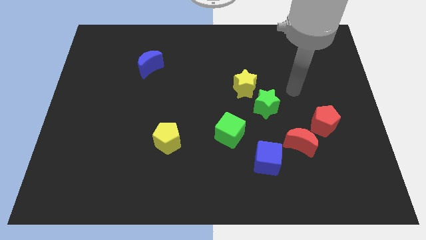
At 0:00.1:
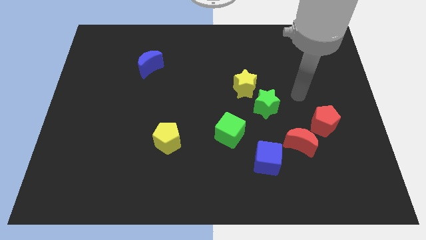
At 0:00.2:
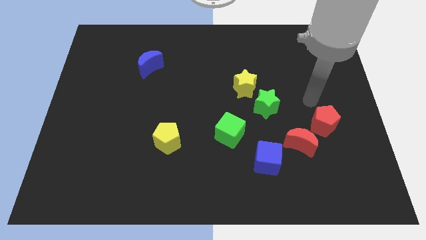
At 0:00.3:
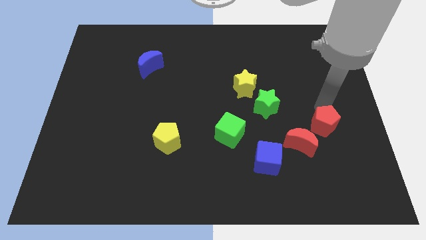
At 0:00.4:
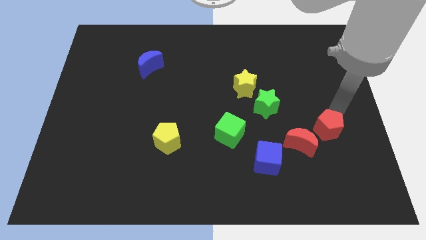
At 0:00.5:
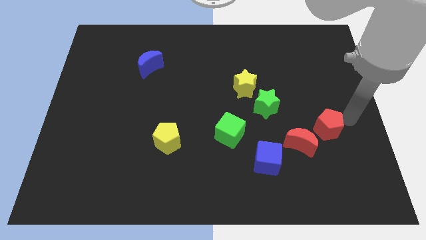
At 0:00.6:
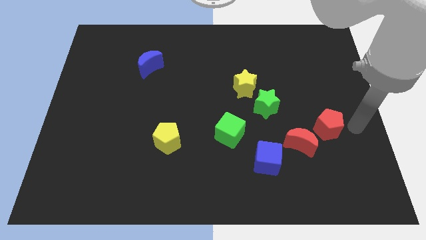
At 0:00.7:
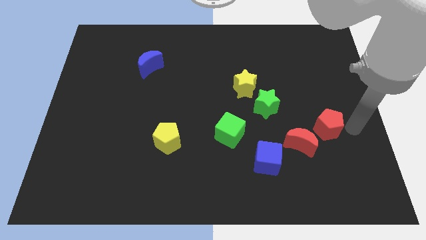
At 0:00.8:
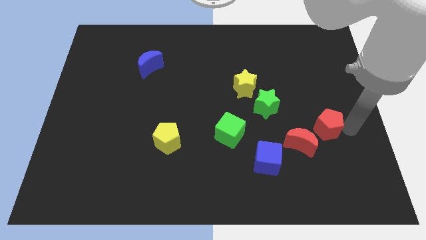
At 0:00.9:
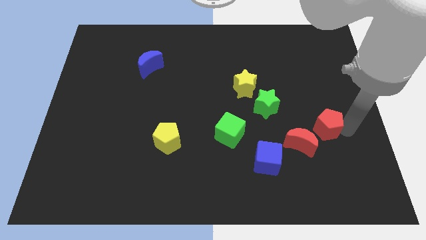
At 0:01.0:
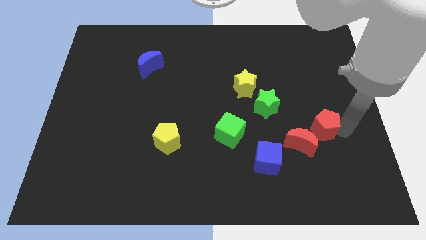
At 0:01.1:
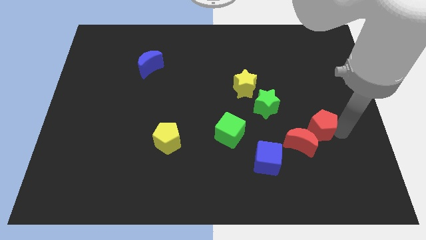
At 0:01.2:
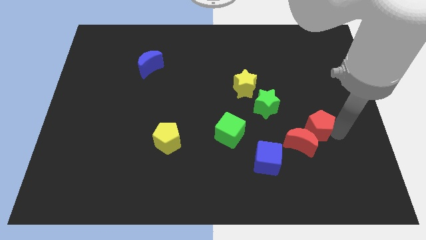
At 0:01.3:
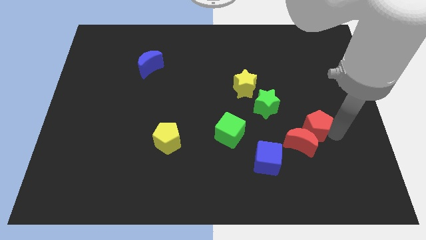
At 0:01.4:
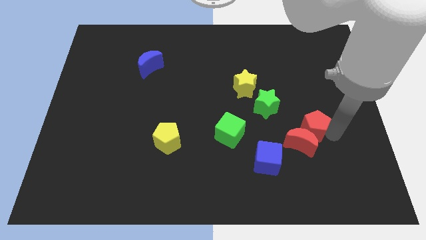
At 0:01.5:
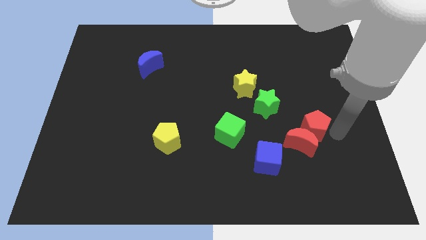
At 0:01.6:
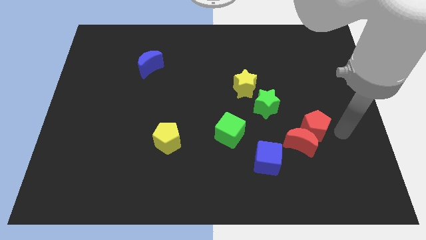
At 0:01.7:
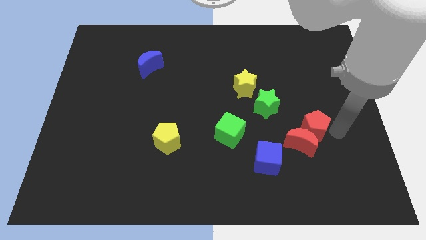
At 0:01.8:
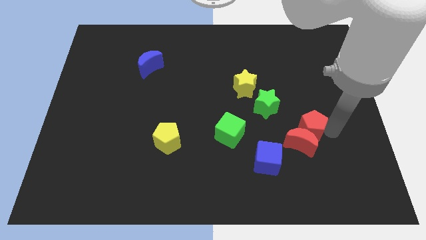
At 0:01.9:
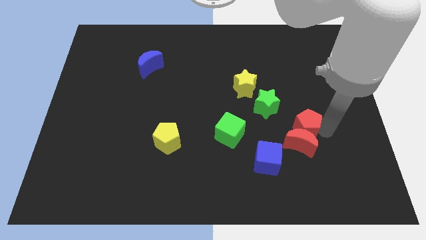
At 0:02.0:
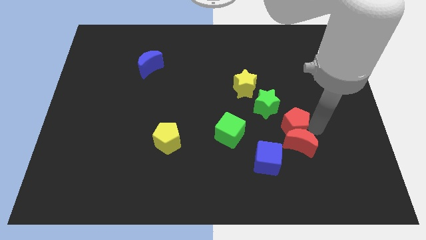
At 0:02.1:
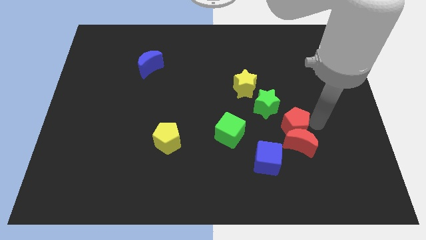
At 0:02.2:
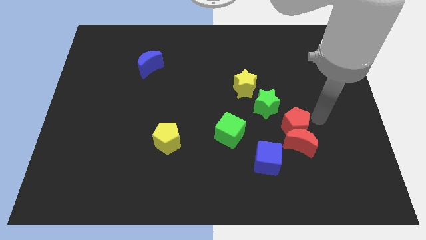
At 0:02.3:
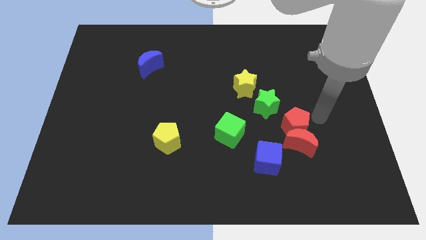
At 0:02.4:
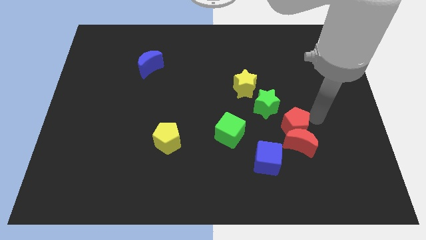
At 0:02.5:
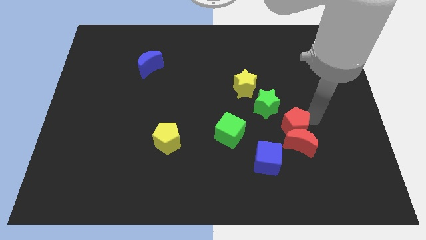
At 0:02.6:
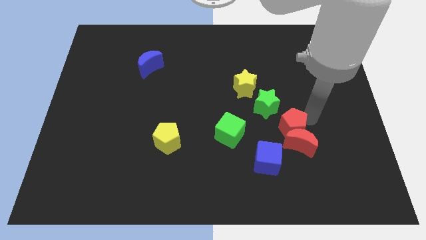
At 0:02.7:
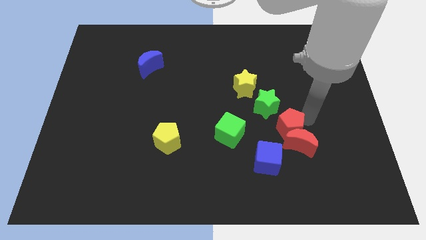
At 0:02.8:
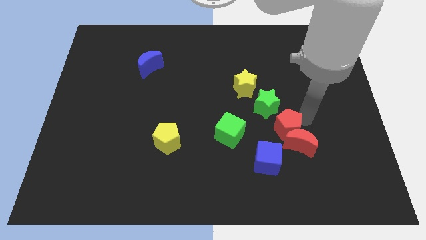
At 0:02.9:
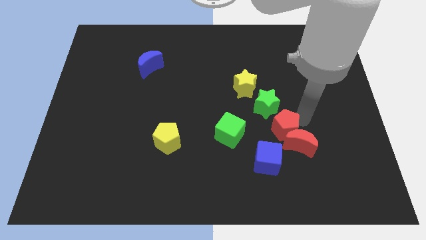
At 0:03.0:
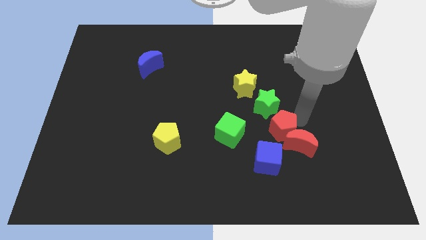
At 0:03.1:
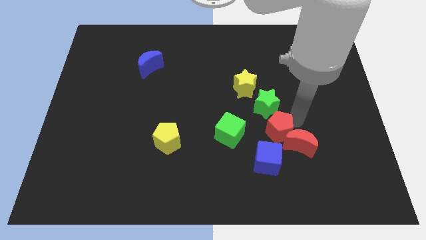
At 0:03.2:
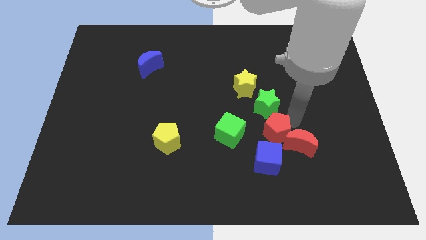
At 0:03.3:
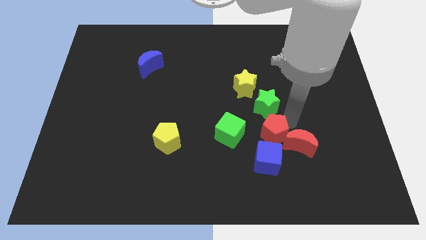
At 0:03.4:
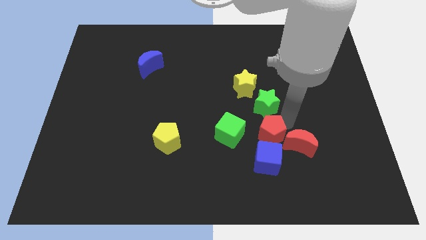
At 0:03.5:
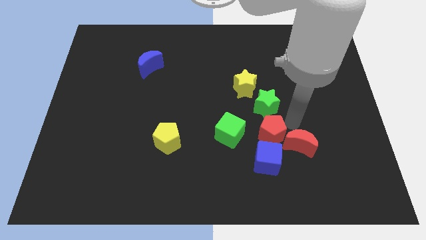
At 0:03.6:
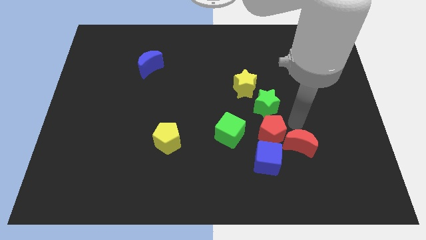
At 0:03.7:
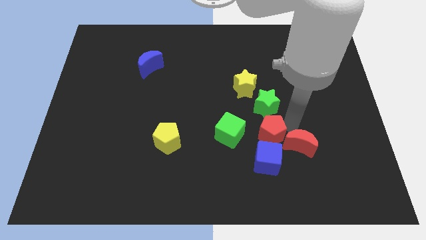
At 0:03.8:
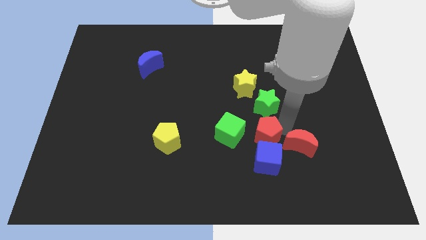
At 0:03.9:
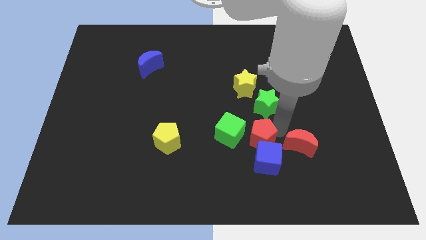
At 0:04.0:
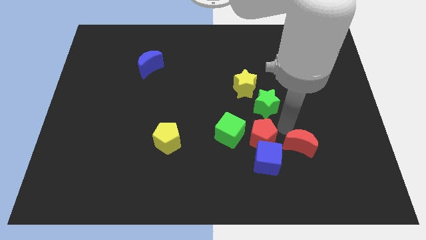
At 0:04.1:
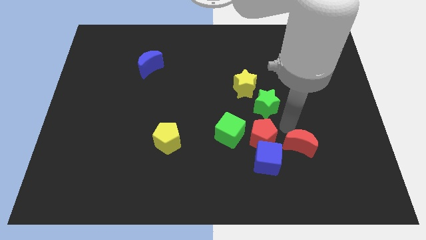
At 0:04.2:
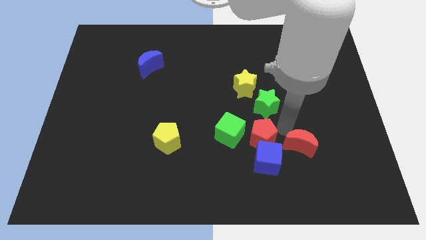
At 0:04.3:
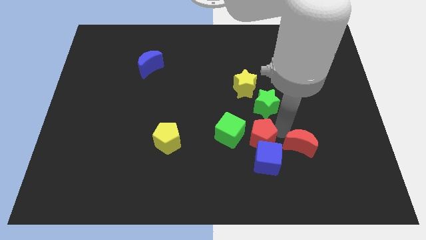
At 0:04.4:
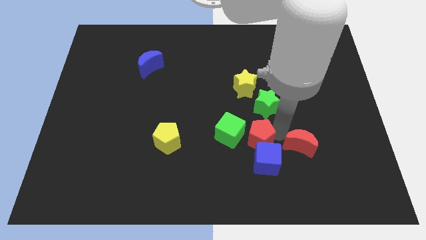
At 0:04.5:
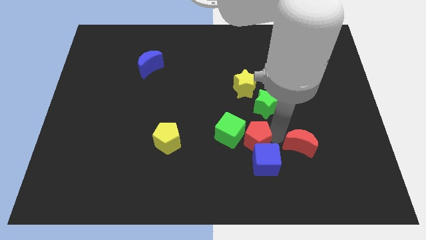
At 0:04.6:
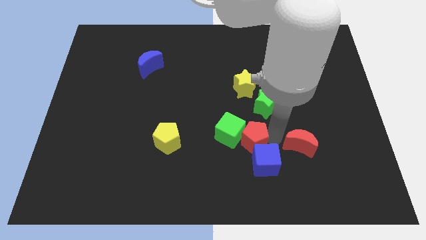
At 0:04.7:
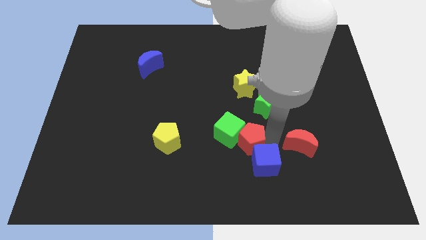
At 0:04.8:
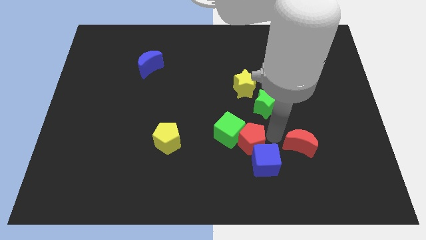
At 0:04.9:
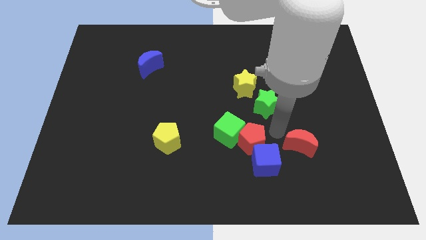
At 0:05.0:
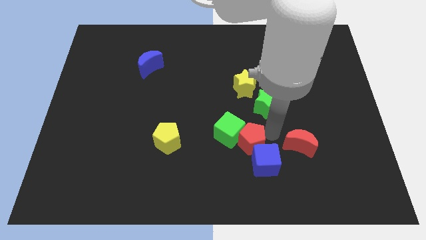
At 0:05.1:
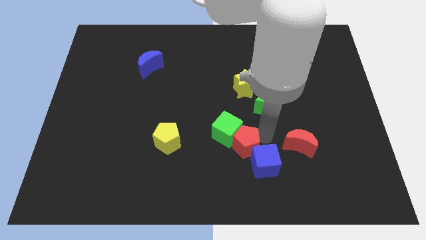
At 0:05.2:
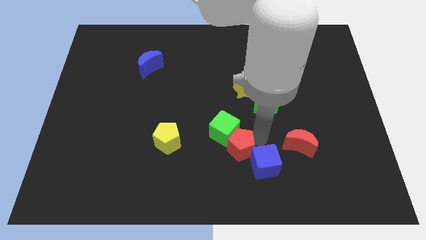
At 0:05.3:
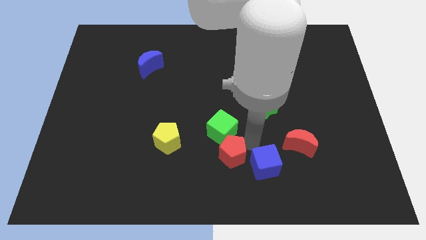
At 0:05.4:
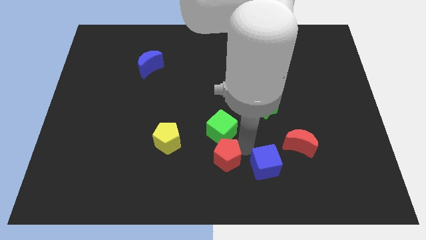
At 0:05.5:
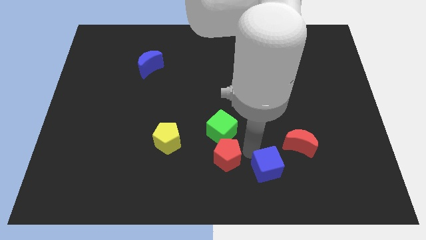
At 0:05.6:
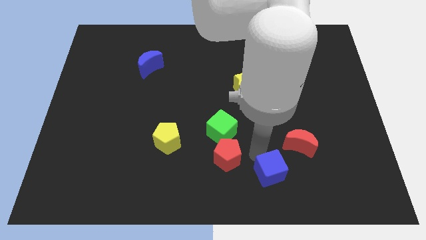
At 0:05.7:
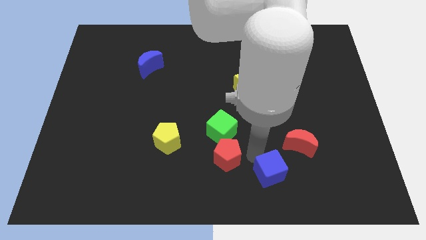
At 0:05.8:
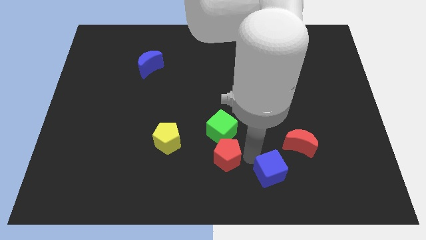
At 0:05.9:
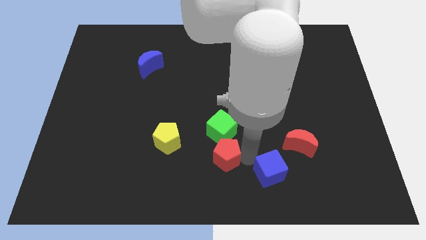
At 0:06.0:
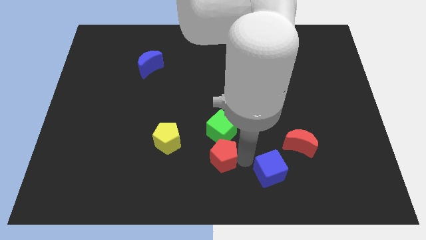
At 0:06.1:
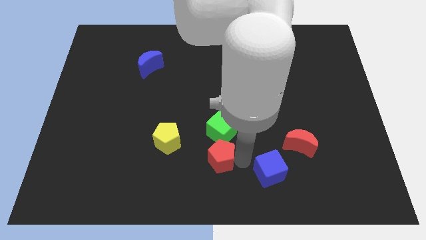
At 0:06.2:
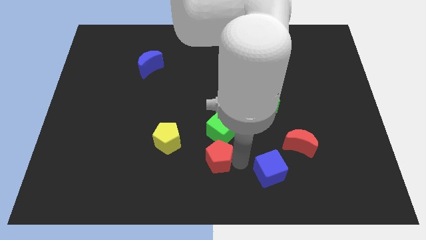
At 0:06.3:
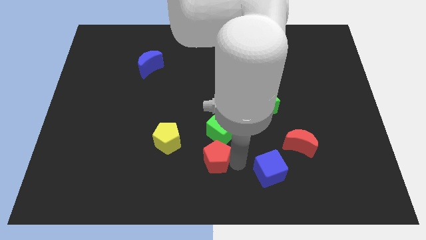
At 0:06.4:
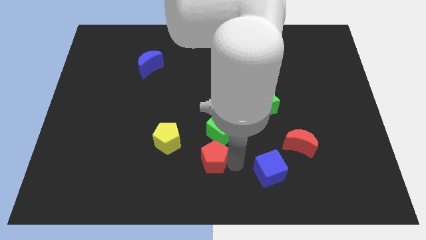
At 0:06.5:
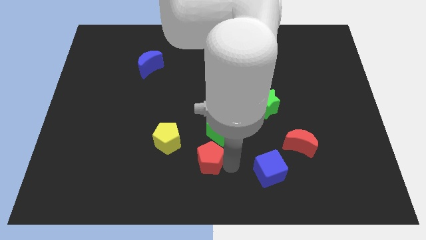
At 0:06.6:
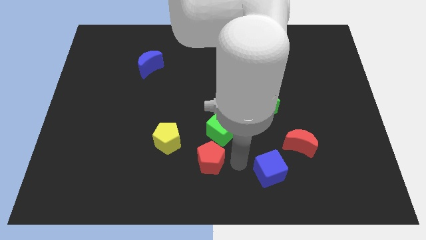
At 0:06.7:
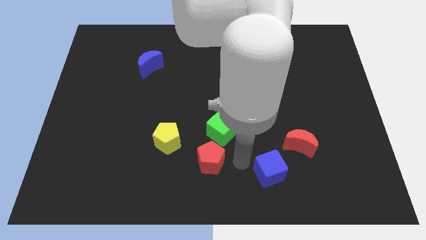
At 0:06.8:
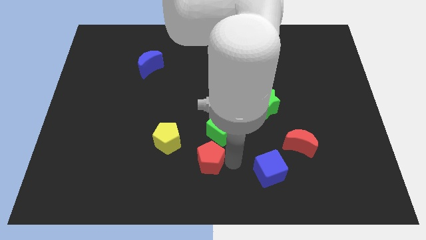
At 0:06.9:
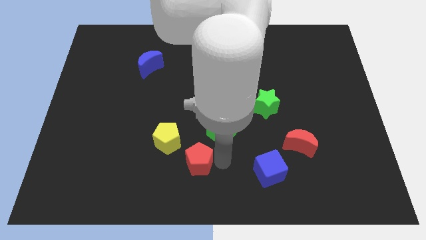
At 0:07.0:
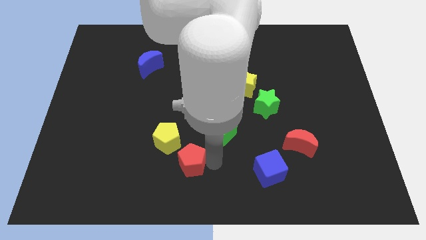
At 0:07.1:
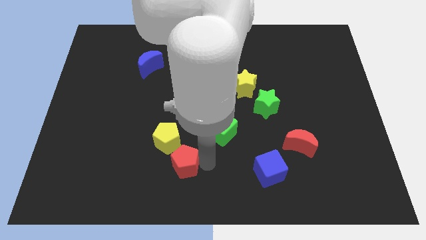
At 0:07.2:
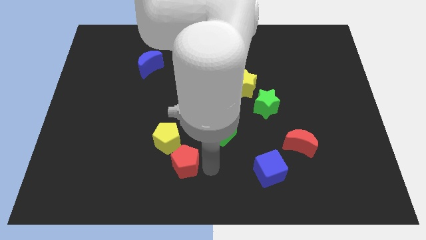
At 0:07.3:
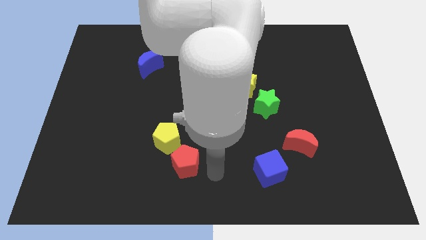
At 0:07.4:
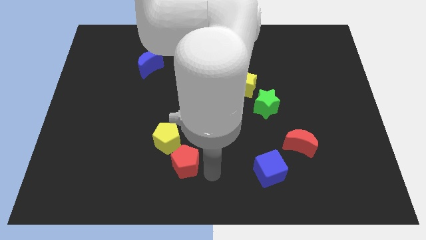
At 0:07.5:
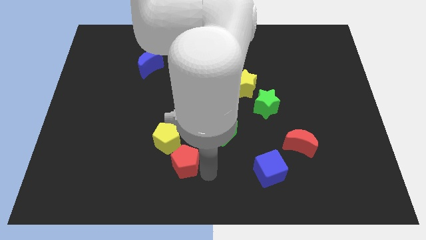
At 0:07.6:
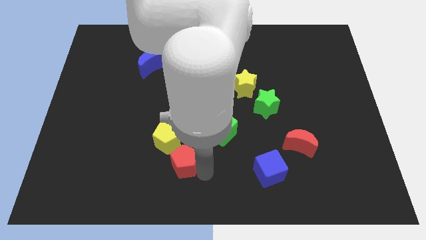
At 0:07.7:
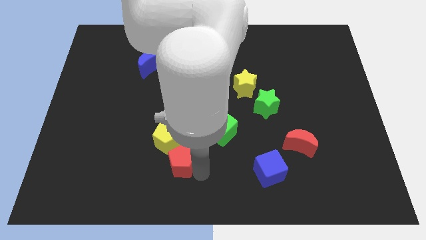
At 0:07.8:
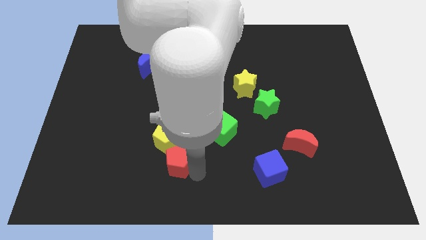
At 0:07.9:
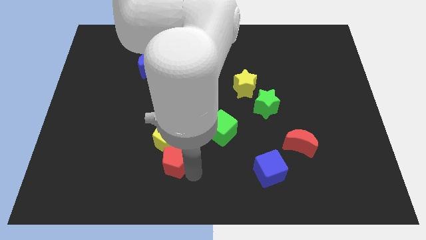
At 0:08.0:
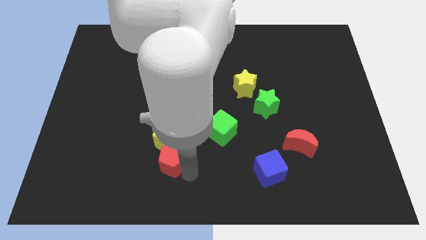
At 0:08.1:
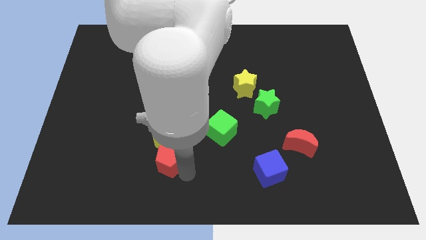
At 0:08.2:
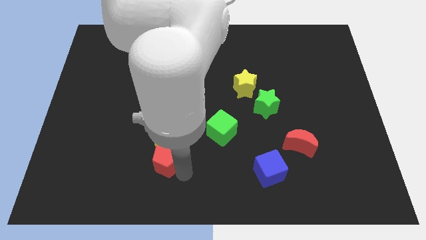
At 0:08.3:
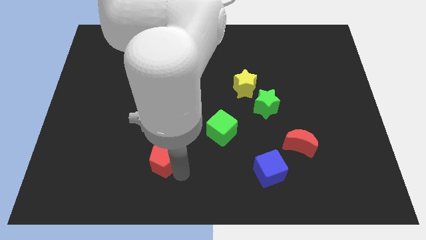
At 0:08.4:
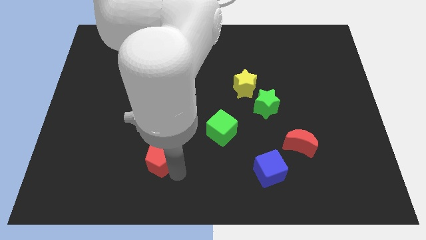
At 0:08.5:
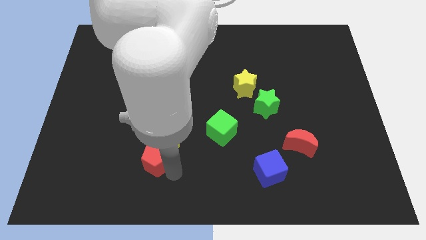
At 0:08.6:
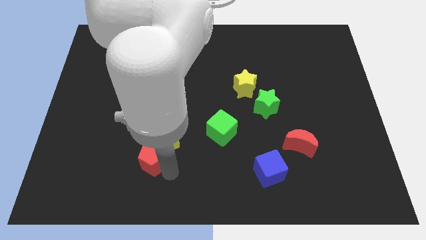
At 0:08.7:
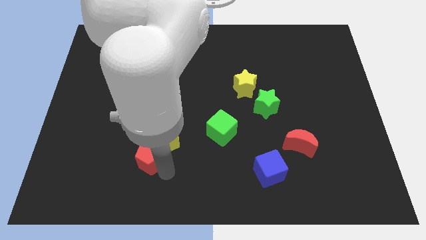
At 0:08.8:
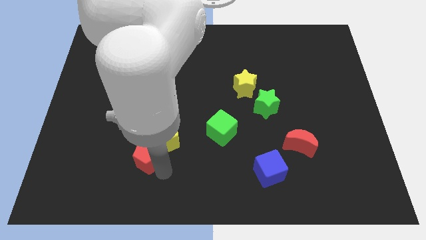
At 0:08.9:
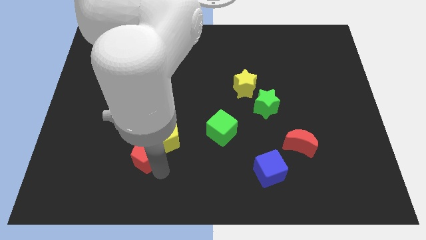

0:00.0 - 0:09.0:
push the red pentagon just left of the yellow pentagon
